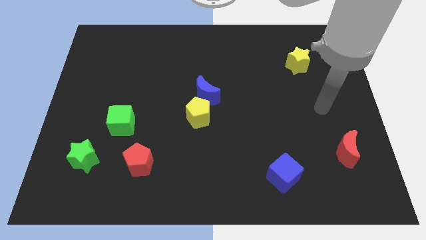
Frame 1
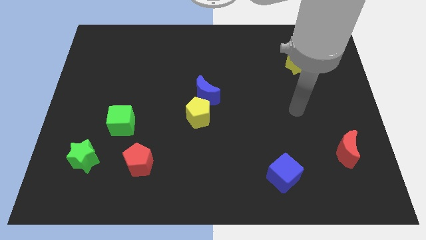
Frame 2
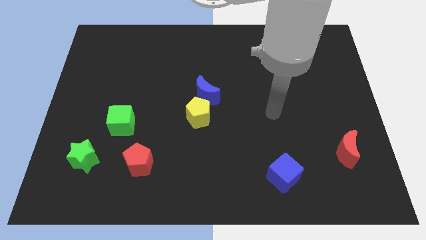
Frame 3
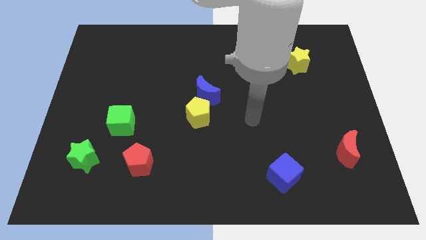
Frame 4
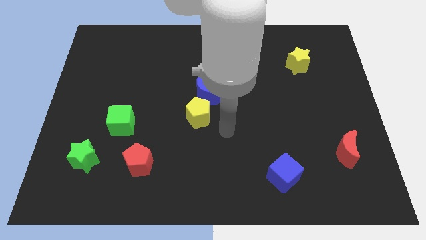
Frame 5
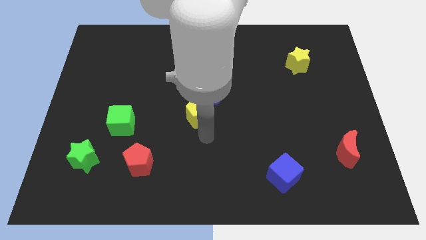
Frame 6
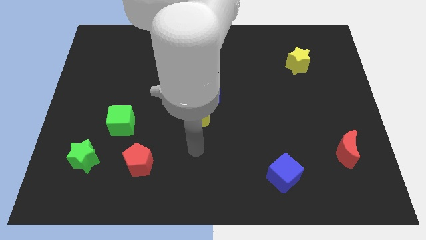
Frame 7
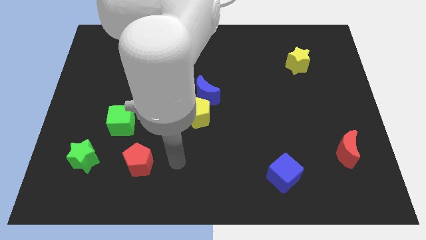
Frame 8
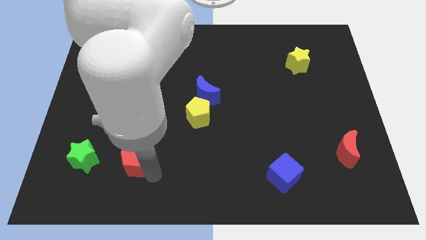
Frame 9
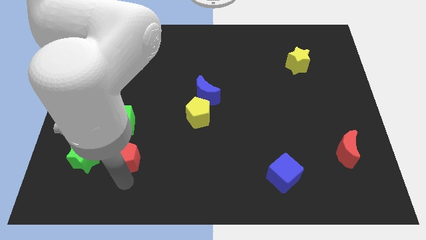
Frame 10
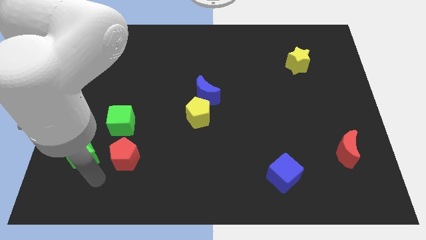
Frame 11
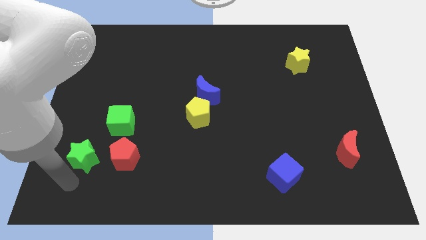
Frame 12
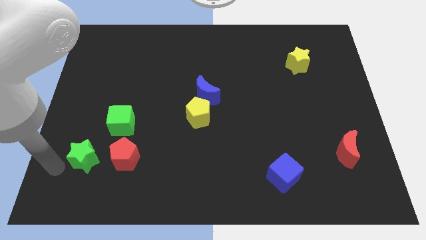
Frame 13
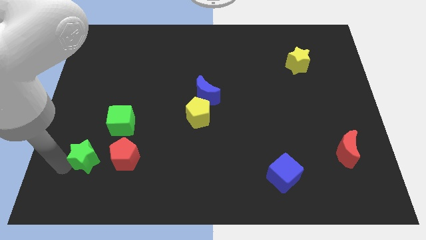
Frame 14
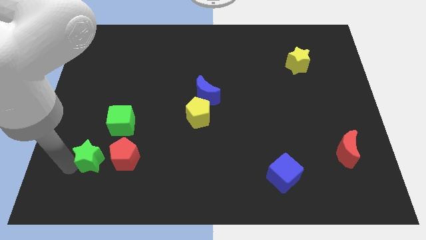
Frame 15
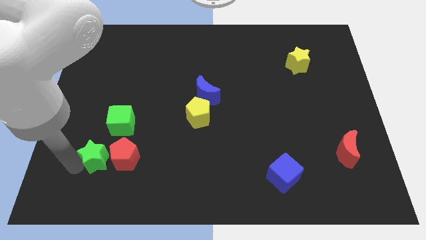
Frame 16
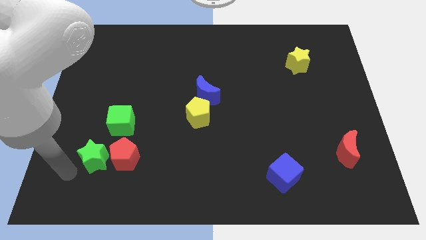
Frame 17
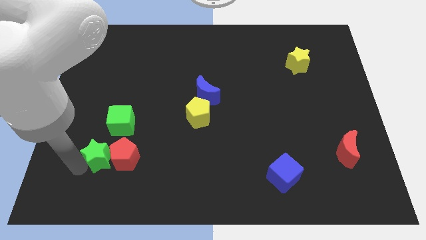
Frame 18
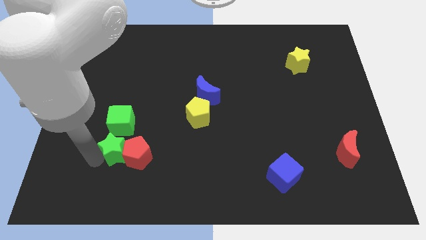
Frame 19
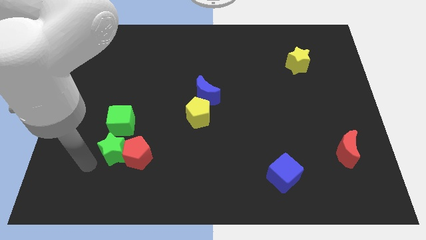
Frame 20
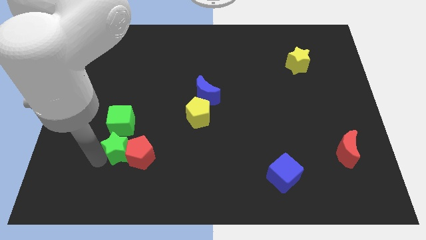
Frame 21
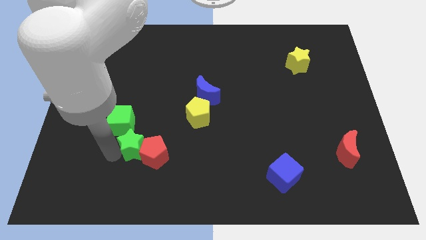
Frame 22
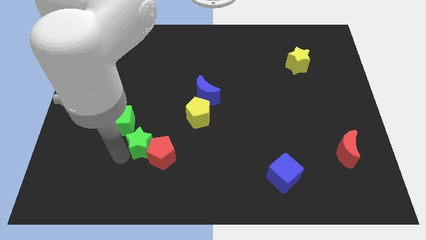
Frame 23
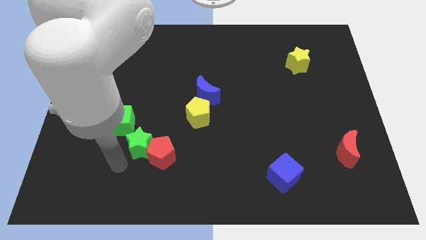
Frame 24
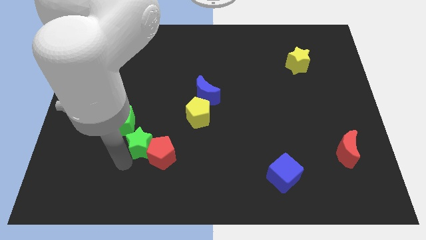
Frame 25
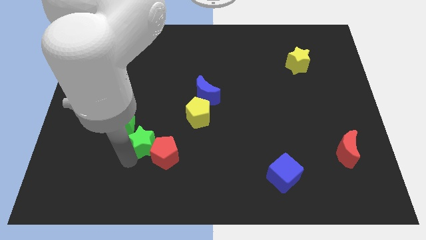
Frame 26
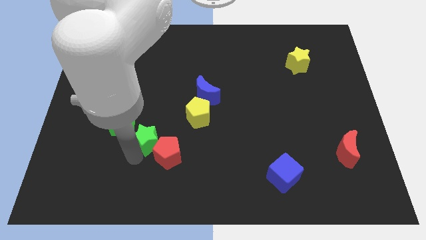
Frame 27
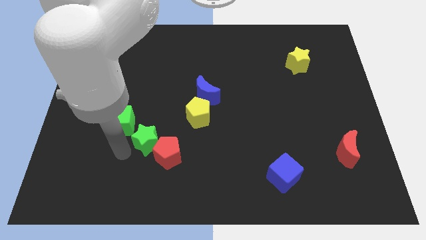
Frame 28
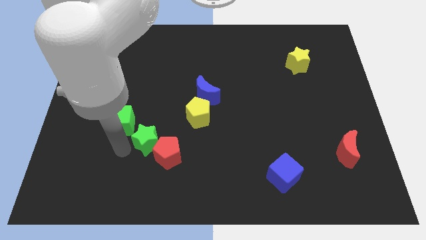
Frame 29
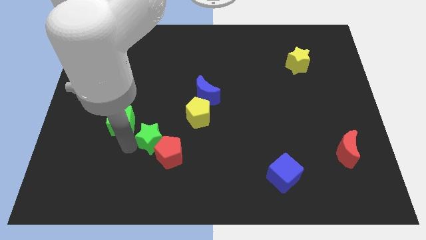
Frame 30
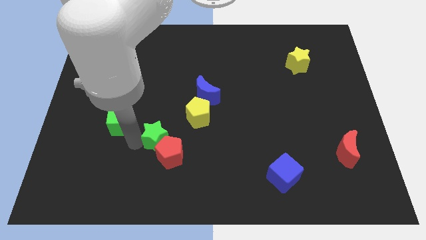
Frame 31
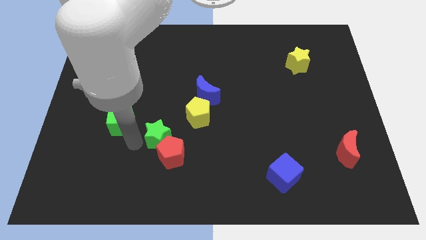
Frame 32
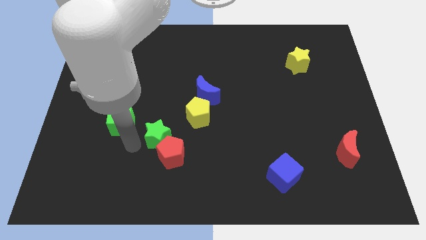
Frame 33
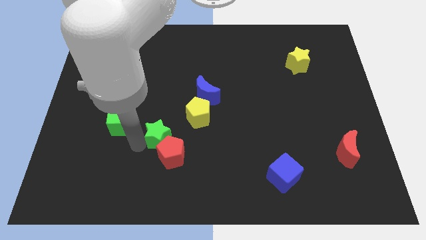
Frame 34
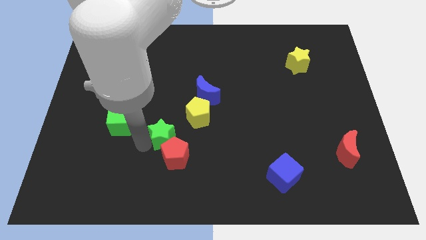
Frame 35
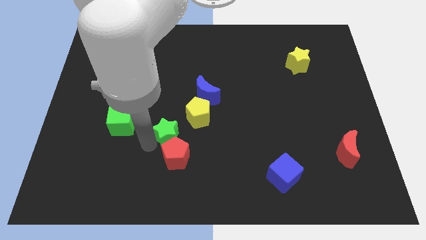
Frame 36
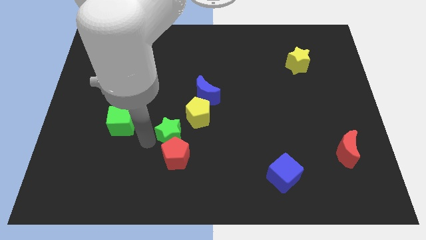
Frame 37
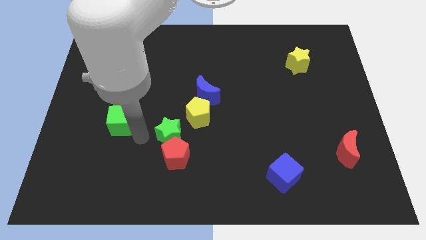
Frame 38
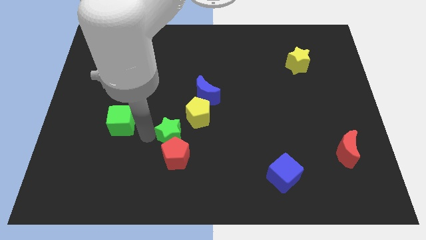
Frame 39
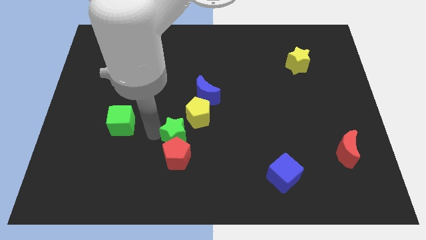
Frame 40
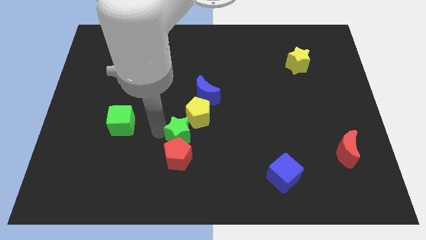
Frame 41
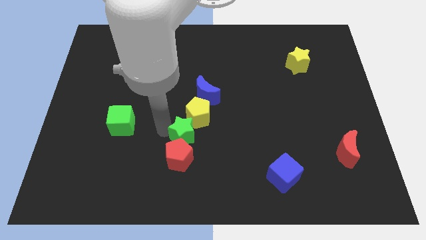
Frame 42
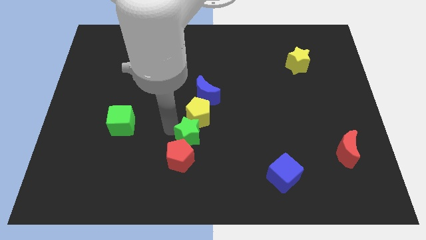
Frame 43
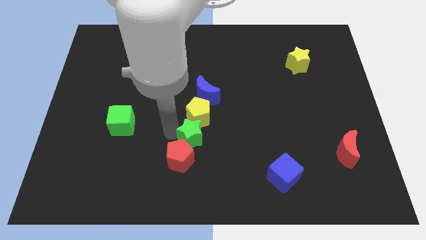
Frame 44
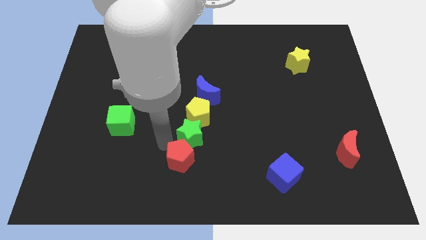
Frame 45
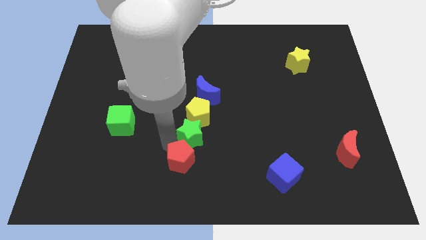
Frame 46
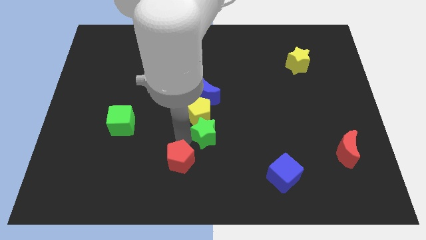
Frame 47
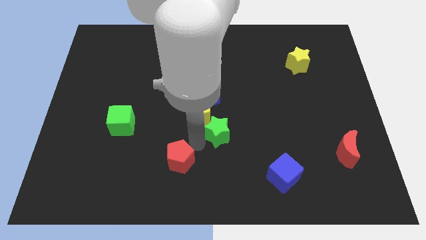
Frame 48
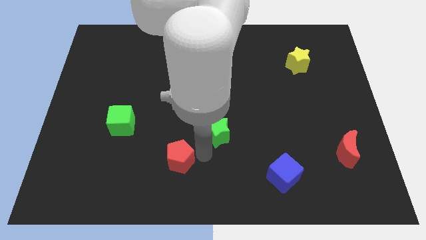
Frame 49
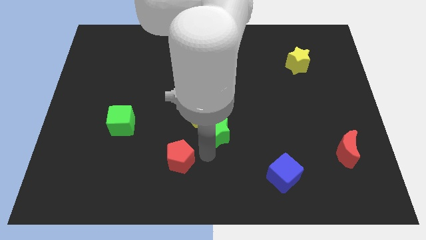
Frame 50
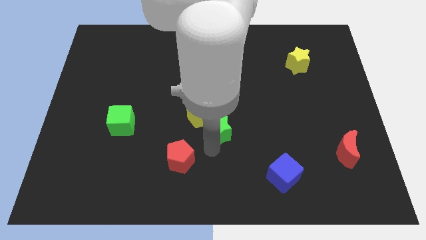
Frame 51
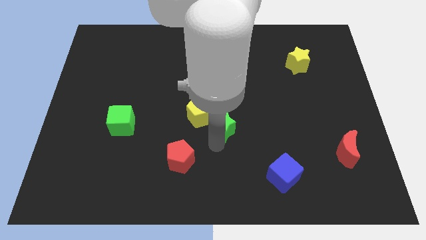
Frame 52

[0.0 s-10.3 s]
put the green star to the bottom right side of the blue moon

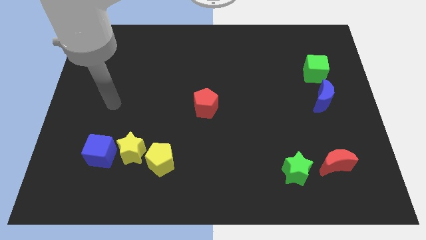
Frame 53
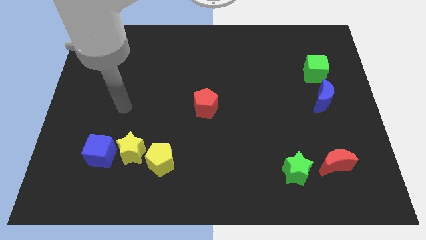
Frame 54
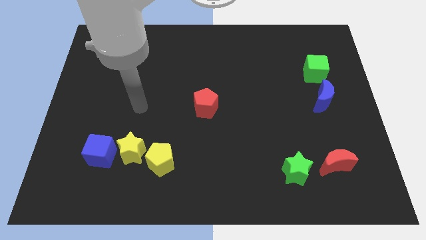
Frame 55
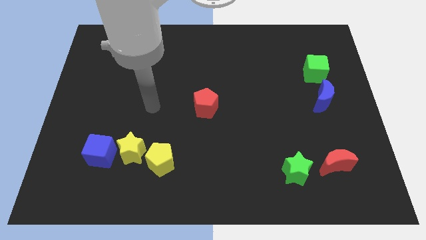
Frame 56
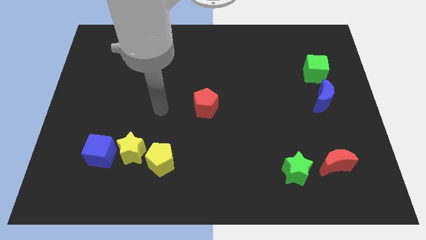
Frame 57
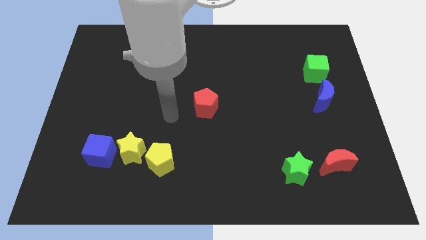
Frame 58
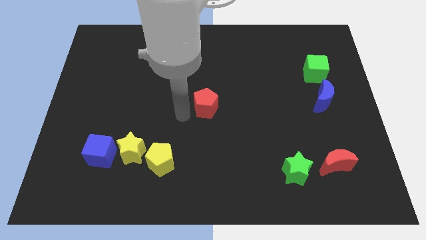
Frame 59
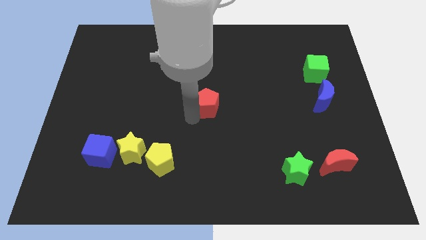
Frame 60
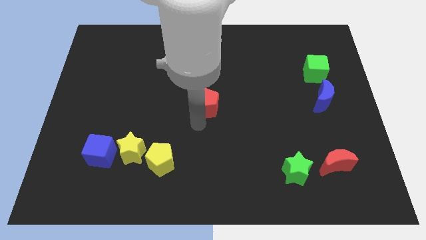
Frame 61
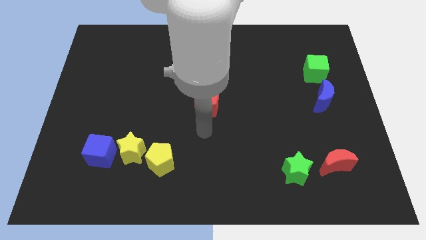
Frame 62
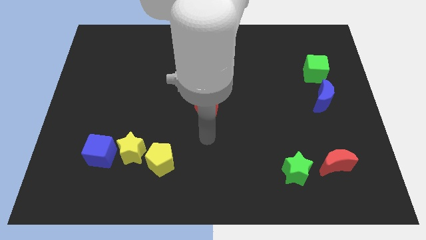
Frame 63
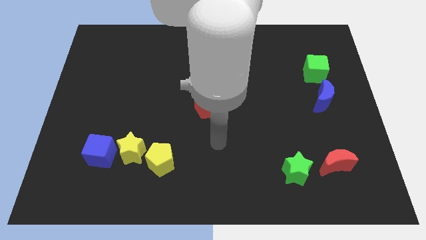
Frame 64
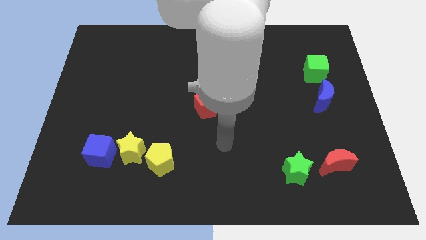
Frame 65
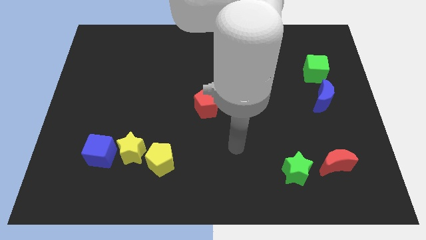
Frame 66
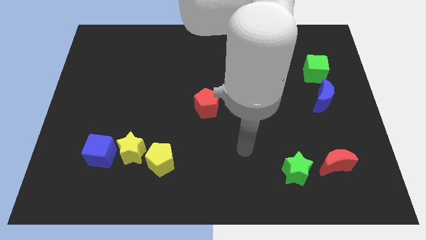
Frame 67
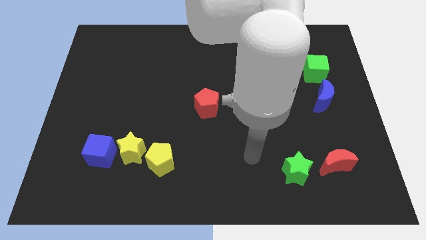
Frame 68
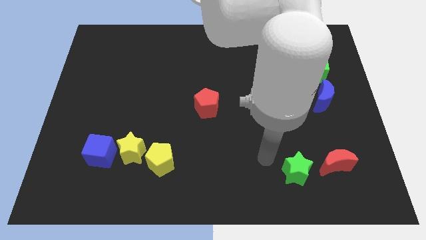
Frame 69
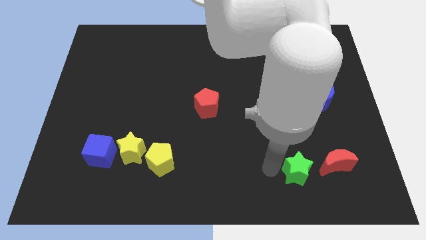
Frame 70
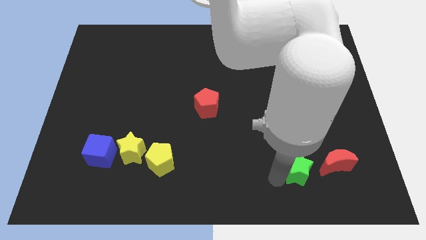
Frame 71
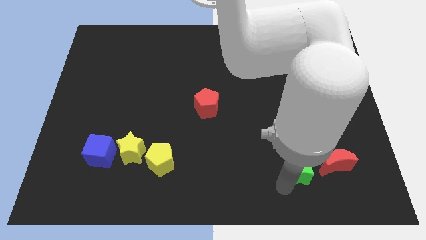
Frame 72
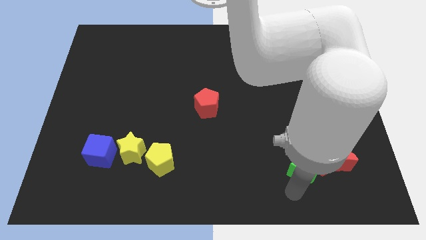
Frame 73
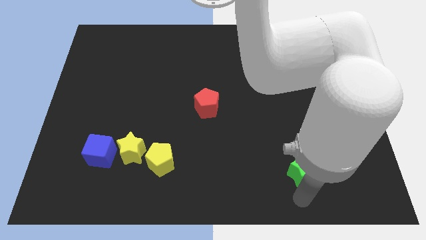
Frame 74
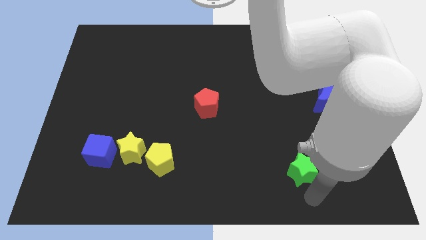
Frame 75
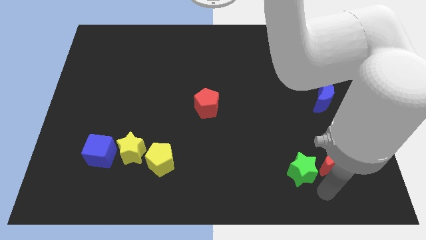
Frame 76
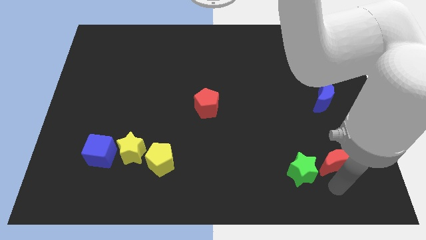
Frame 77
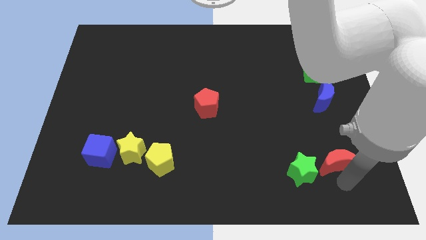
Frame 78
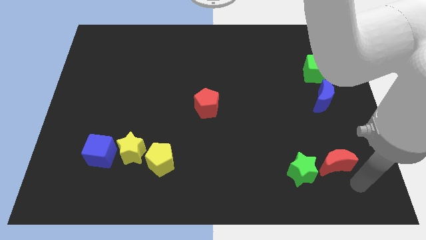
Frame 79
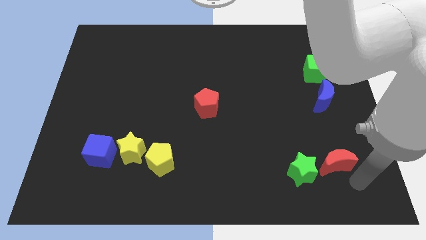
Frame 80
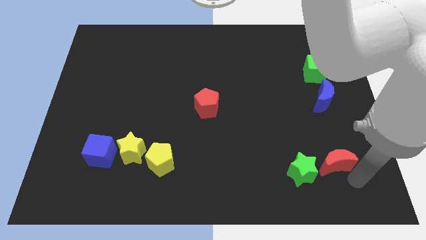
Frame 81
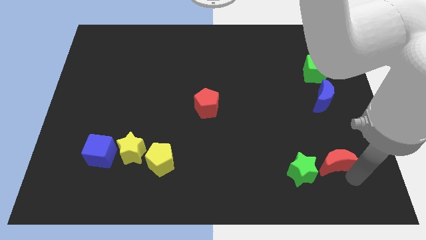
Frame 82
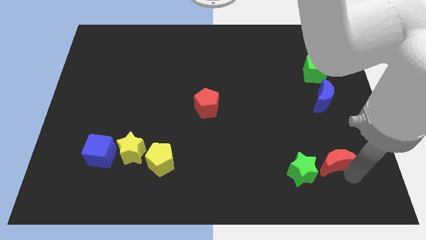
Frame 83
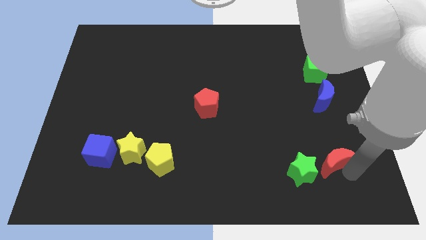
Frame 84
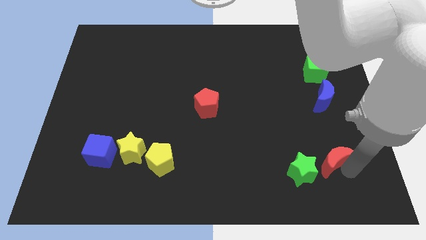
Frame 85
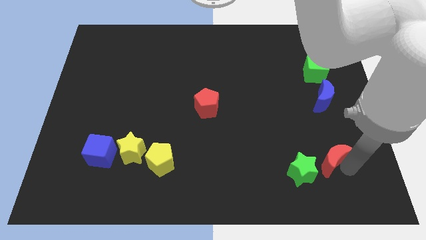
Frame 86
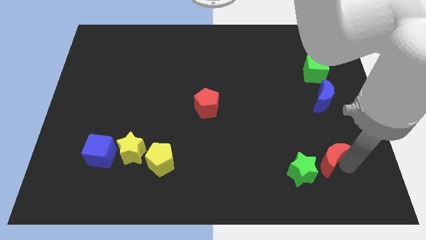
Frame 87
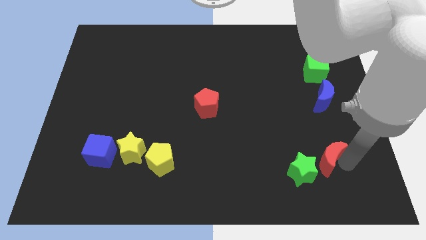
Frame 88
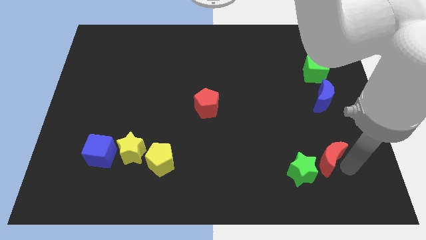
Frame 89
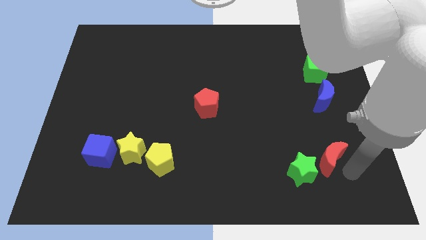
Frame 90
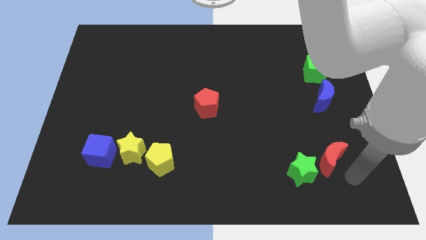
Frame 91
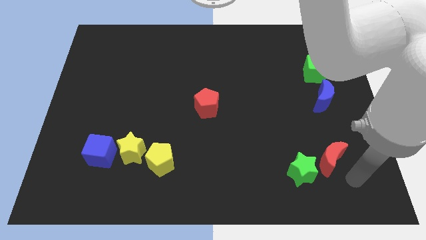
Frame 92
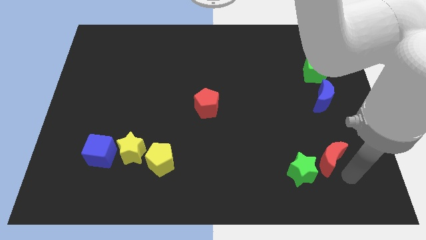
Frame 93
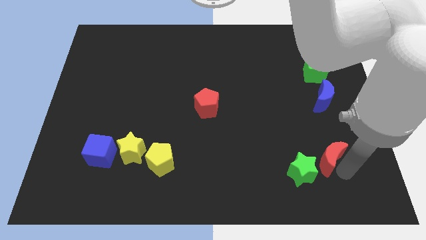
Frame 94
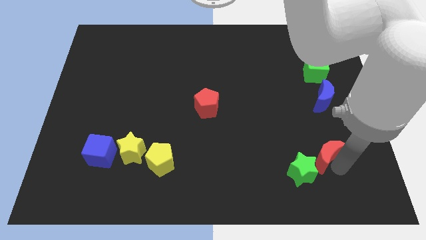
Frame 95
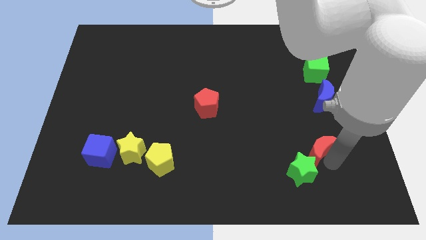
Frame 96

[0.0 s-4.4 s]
put the red moon to the top side of the green star
